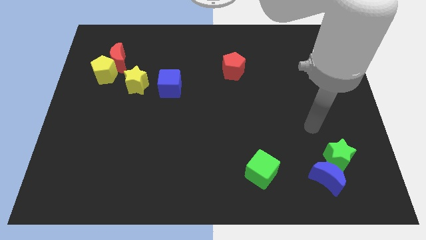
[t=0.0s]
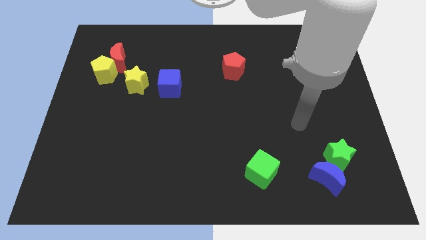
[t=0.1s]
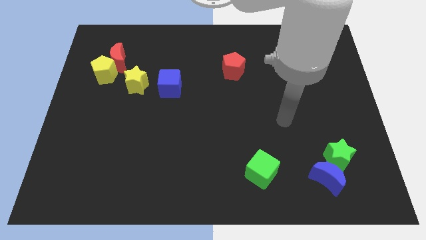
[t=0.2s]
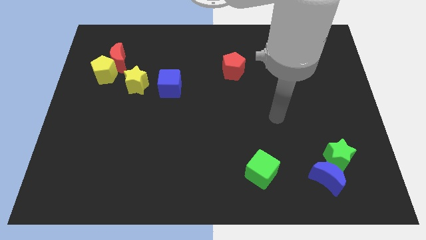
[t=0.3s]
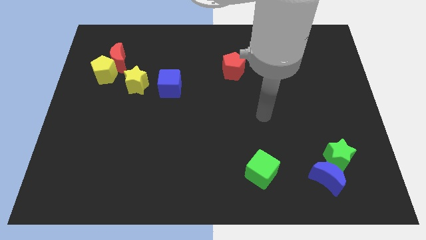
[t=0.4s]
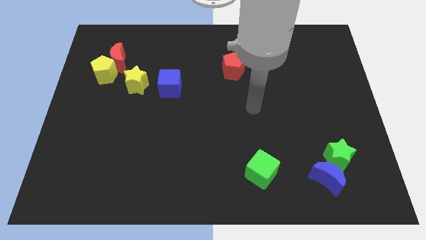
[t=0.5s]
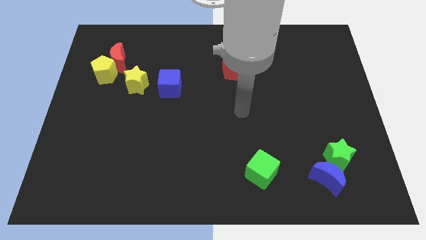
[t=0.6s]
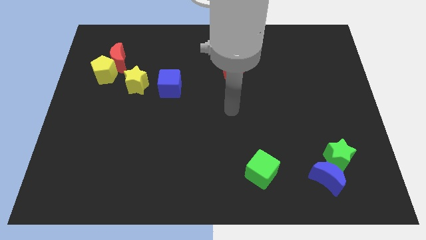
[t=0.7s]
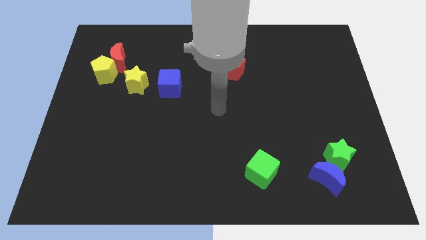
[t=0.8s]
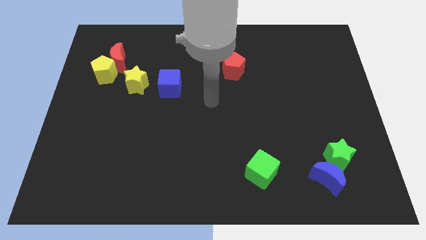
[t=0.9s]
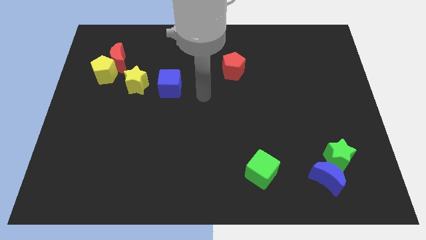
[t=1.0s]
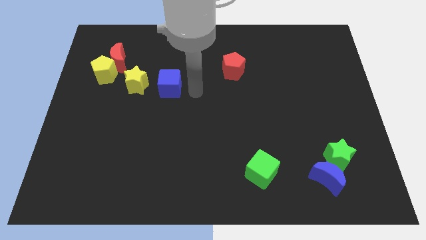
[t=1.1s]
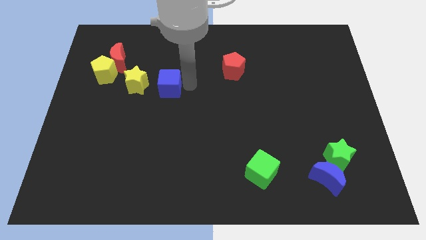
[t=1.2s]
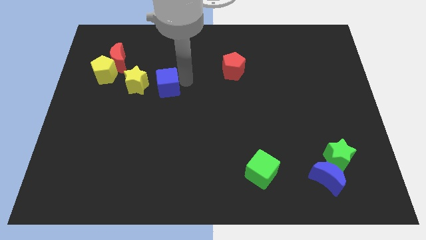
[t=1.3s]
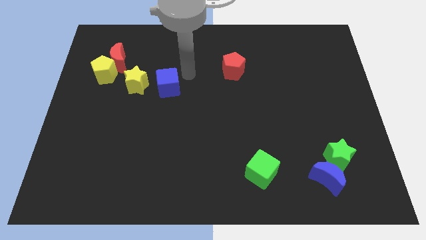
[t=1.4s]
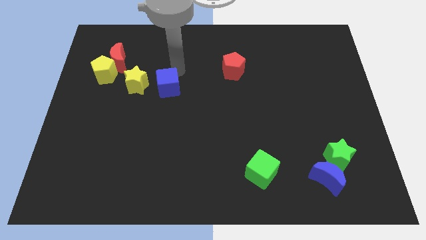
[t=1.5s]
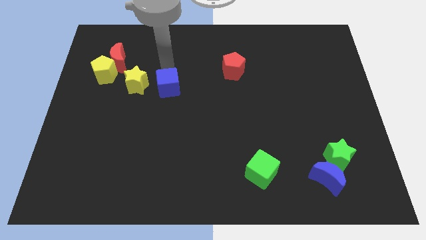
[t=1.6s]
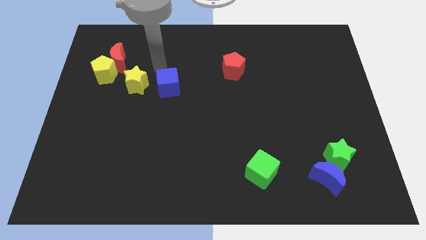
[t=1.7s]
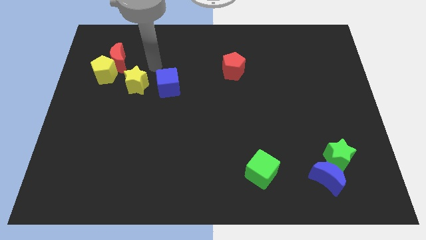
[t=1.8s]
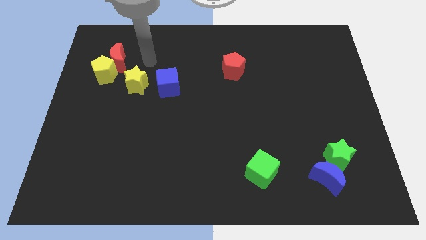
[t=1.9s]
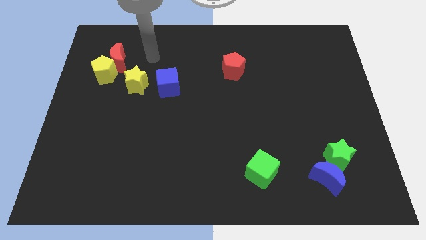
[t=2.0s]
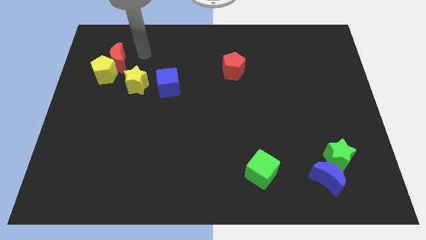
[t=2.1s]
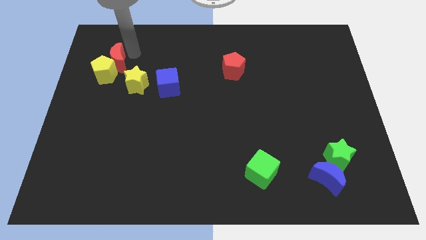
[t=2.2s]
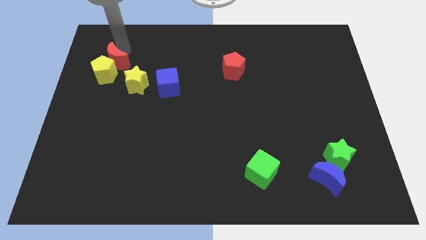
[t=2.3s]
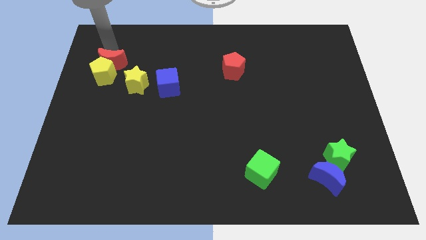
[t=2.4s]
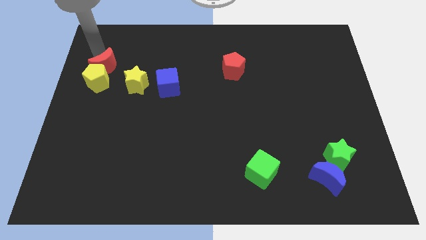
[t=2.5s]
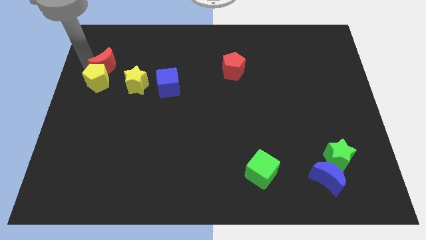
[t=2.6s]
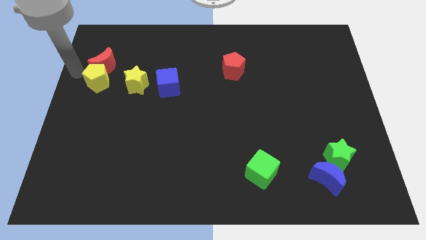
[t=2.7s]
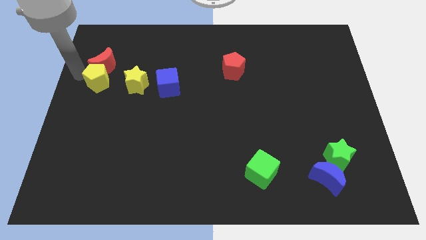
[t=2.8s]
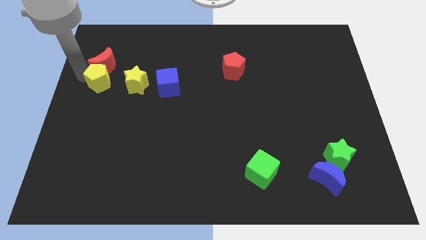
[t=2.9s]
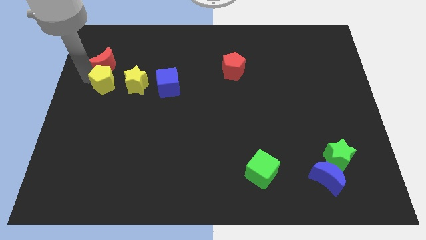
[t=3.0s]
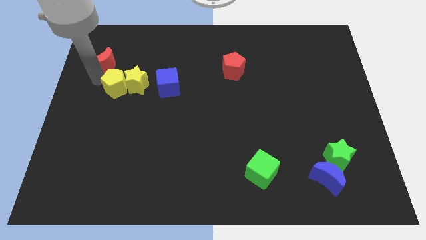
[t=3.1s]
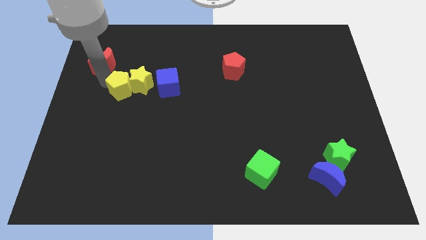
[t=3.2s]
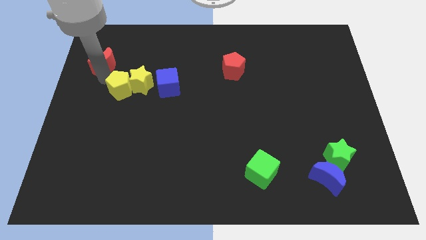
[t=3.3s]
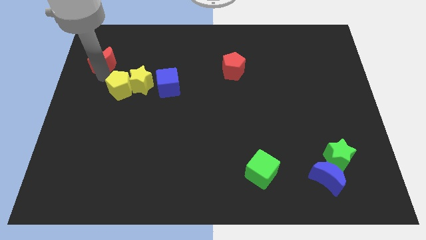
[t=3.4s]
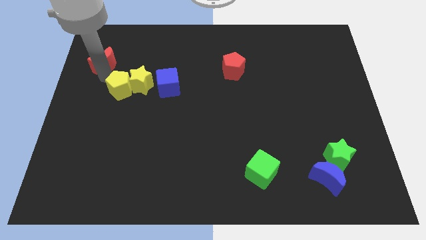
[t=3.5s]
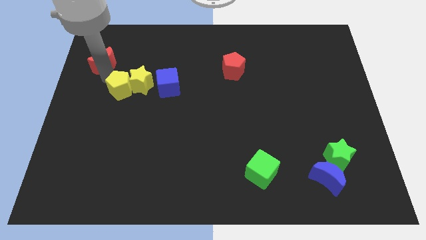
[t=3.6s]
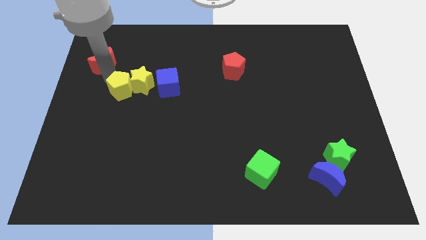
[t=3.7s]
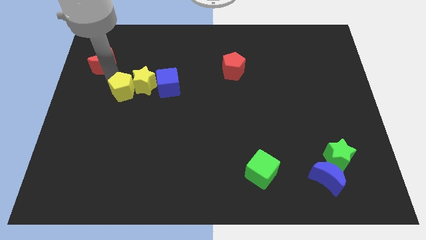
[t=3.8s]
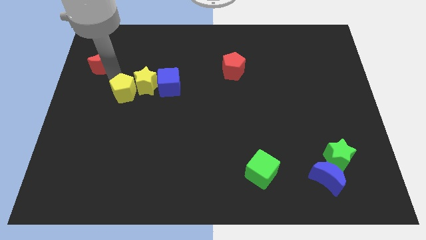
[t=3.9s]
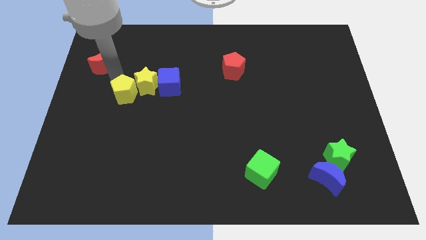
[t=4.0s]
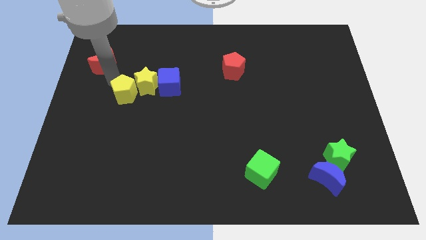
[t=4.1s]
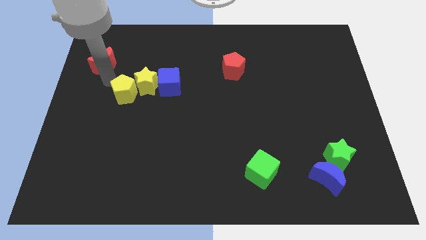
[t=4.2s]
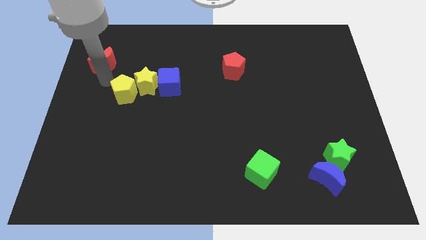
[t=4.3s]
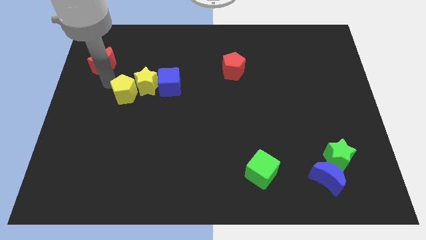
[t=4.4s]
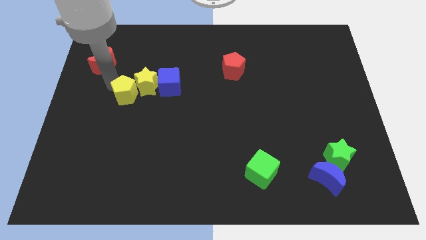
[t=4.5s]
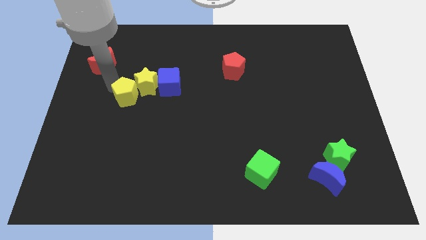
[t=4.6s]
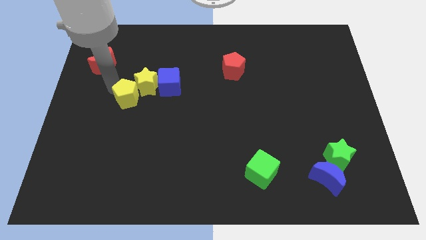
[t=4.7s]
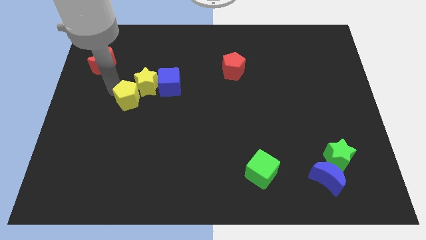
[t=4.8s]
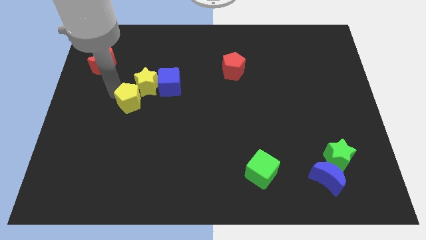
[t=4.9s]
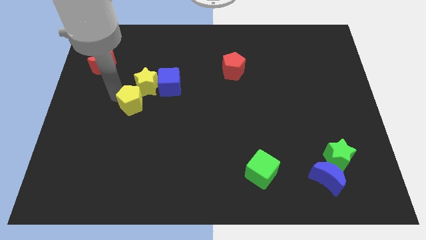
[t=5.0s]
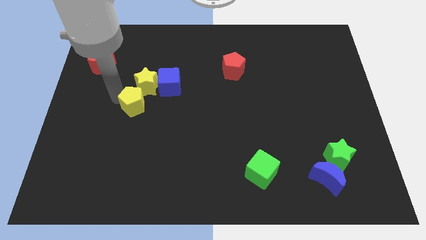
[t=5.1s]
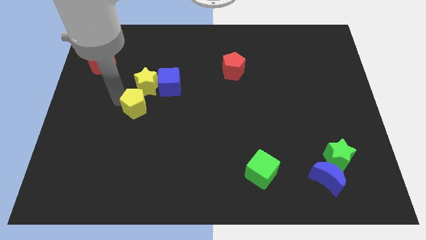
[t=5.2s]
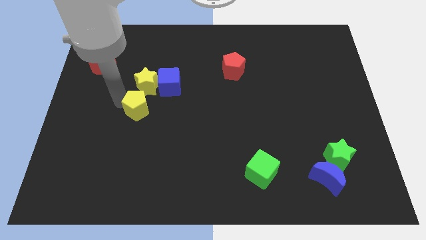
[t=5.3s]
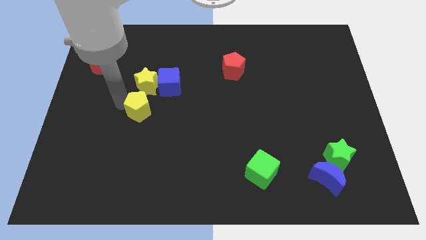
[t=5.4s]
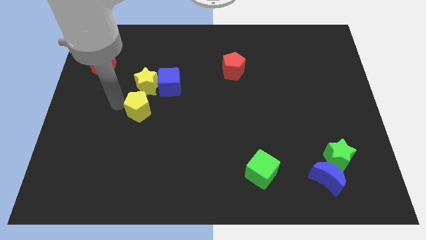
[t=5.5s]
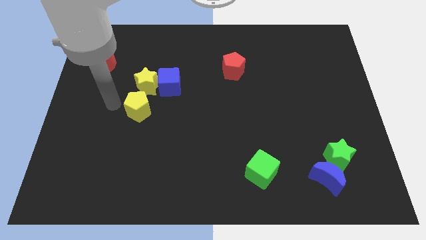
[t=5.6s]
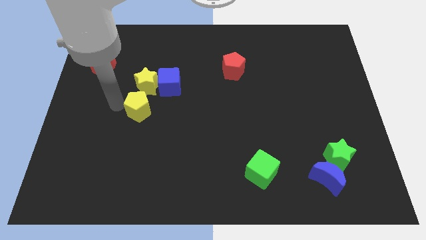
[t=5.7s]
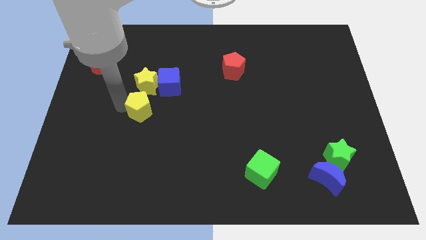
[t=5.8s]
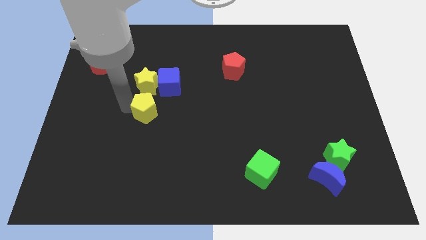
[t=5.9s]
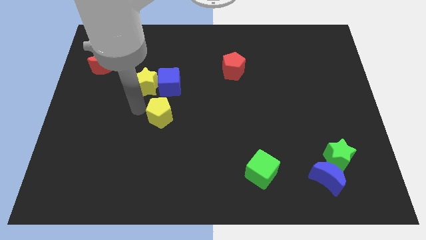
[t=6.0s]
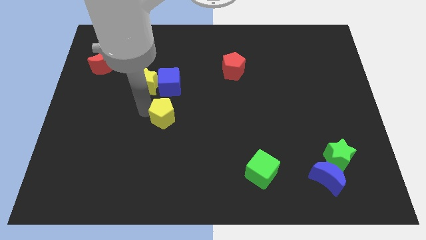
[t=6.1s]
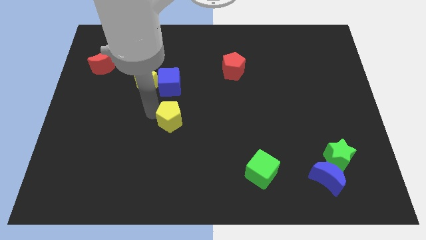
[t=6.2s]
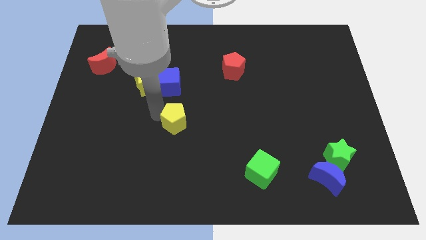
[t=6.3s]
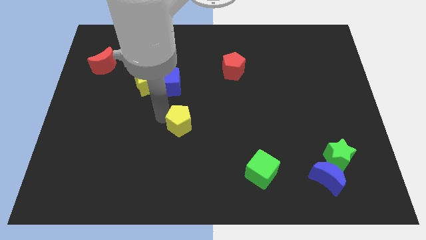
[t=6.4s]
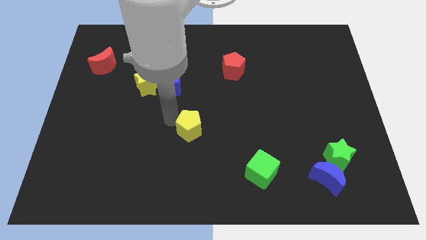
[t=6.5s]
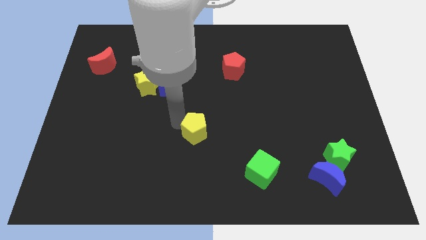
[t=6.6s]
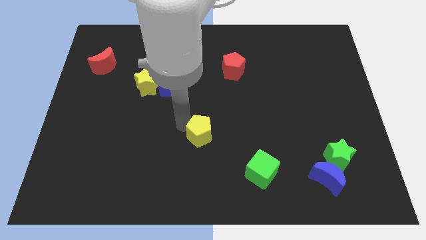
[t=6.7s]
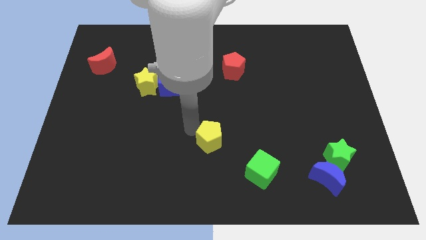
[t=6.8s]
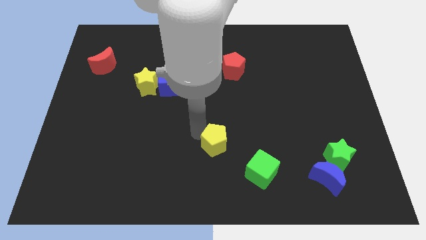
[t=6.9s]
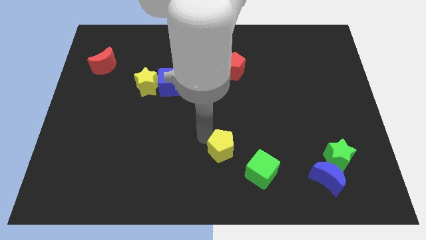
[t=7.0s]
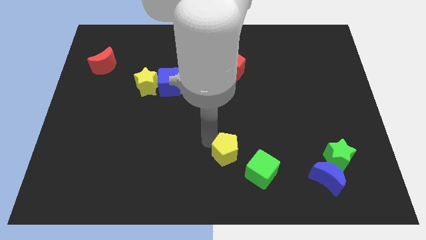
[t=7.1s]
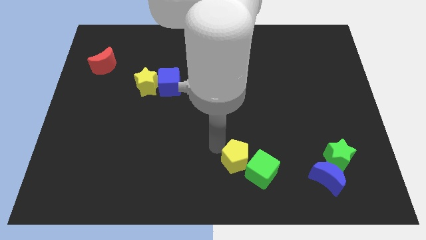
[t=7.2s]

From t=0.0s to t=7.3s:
slide the yellow pentagon to the green cube

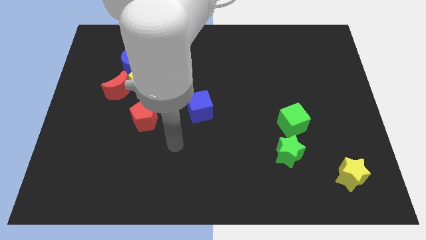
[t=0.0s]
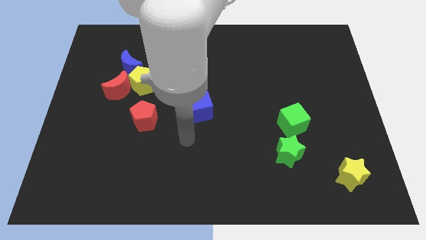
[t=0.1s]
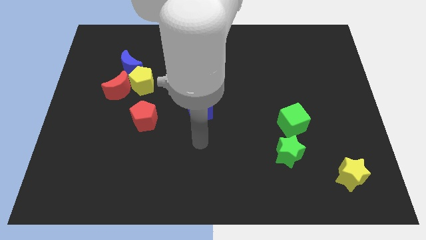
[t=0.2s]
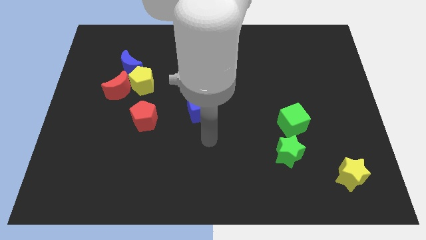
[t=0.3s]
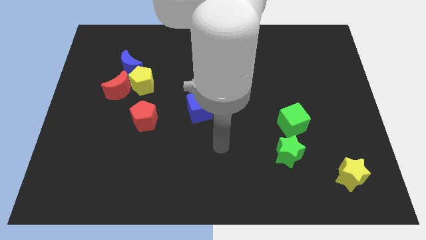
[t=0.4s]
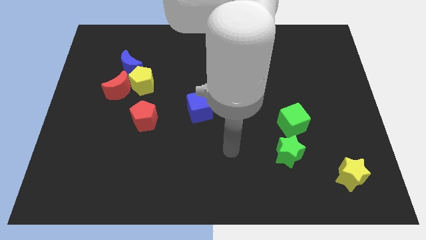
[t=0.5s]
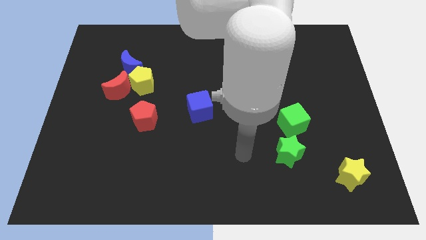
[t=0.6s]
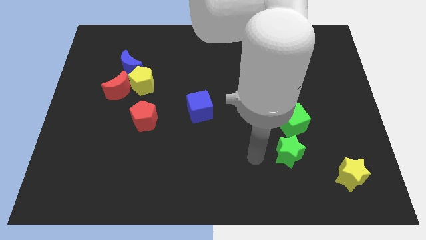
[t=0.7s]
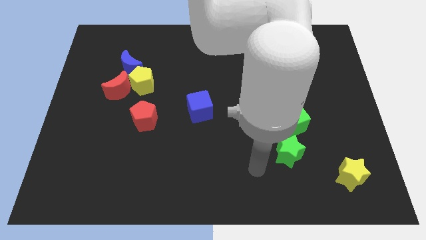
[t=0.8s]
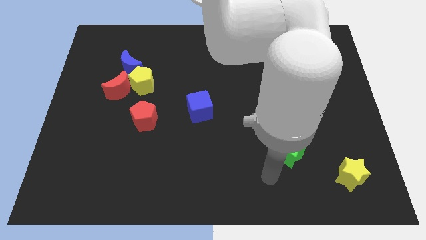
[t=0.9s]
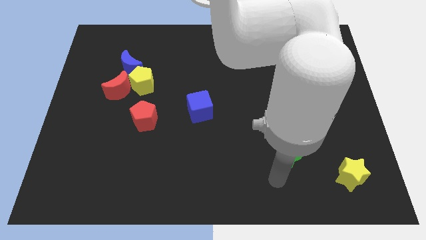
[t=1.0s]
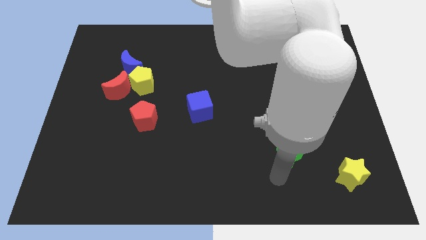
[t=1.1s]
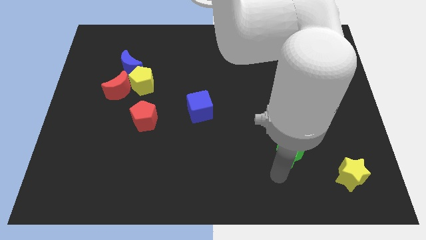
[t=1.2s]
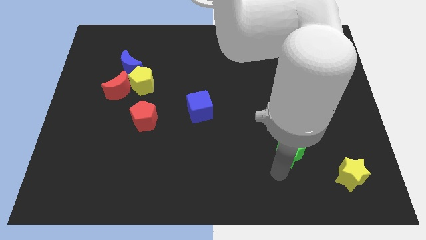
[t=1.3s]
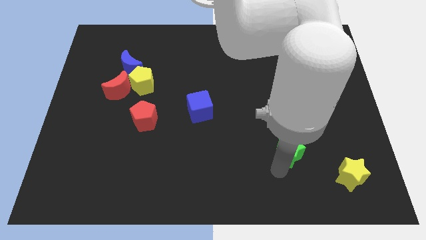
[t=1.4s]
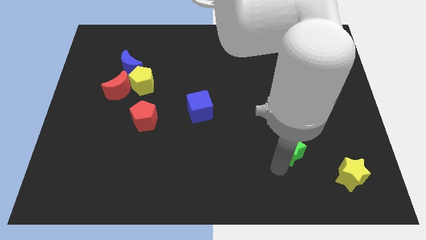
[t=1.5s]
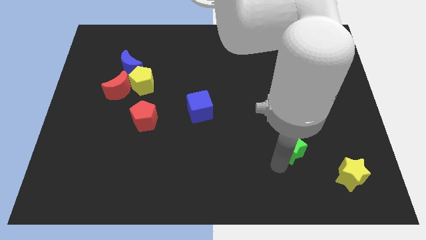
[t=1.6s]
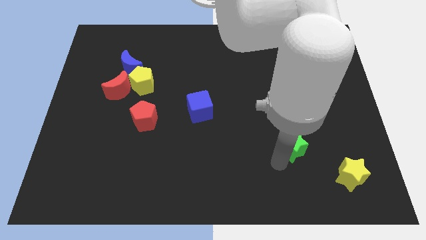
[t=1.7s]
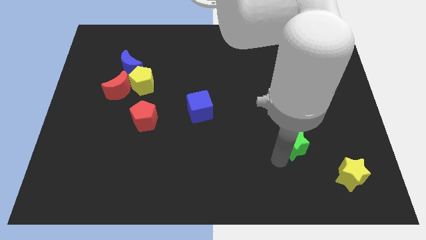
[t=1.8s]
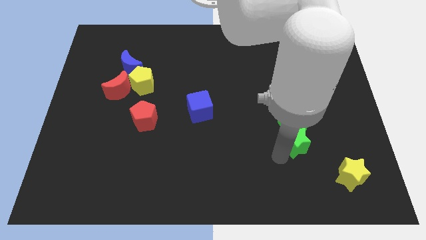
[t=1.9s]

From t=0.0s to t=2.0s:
slide the green star next to the green cube
